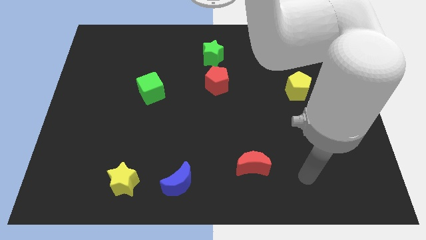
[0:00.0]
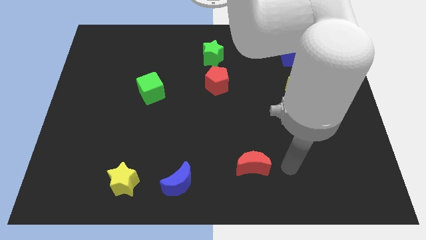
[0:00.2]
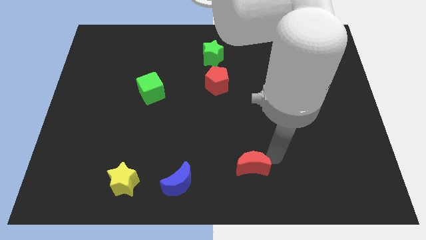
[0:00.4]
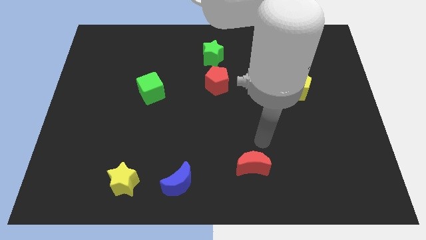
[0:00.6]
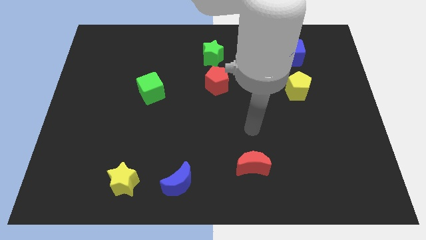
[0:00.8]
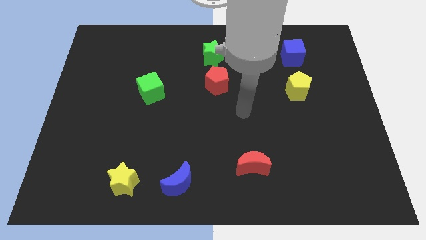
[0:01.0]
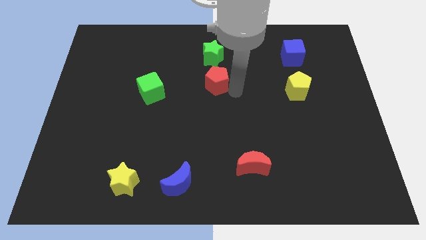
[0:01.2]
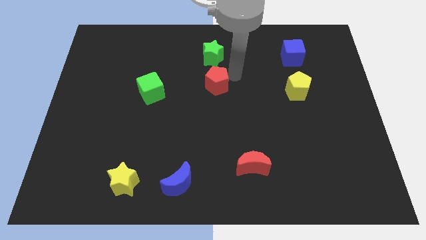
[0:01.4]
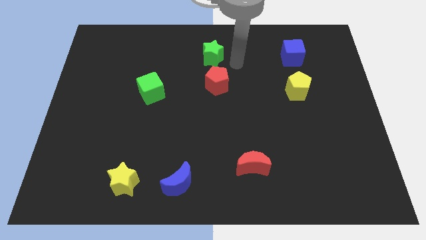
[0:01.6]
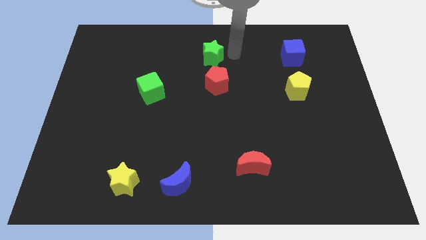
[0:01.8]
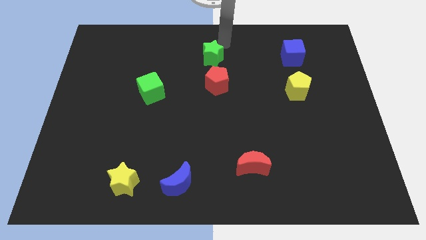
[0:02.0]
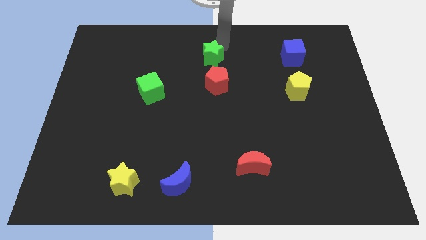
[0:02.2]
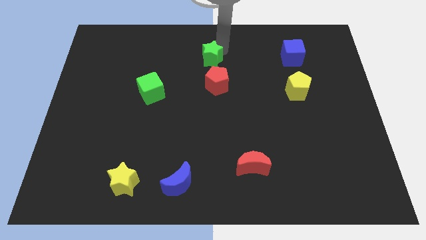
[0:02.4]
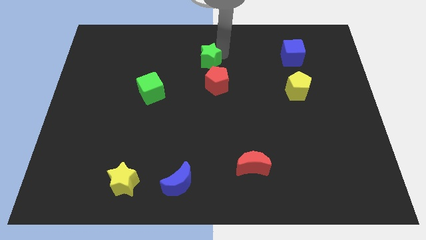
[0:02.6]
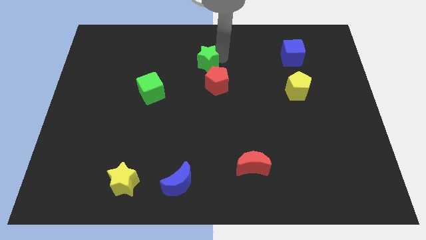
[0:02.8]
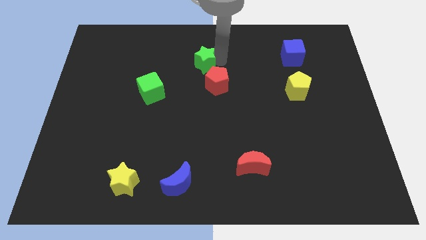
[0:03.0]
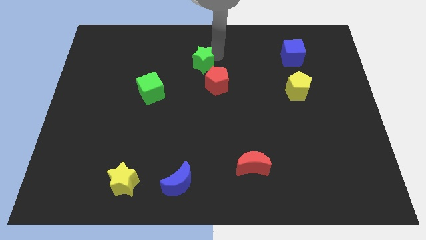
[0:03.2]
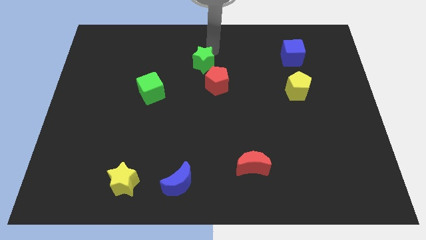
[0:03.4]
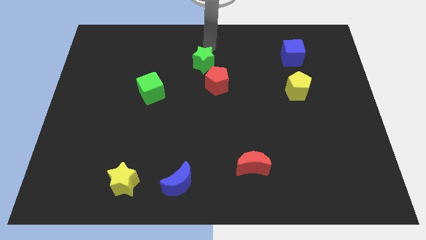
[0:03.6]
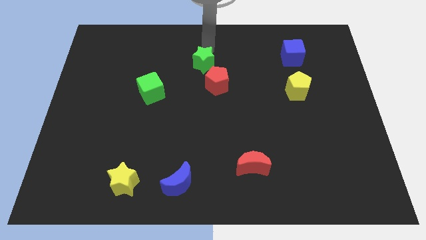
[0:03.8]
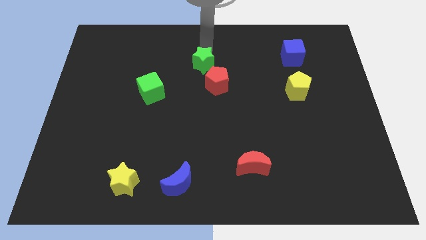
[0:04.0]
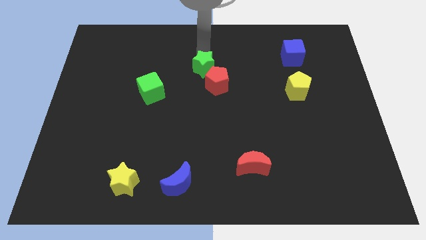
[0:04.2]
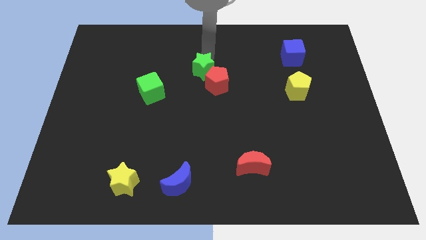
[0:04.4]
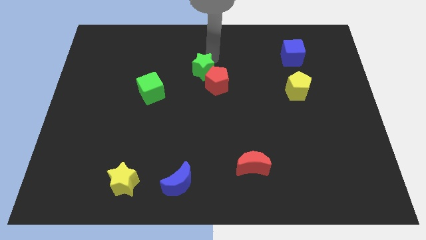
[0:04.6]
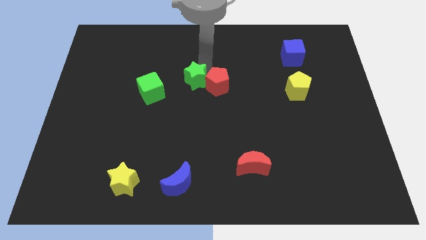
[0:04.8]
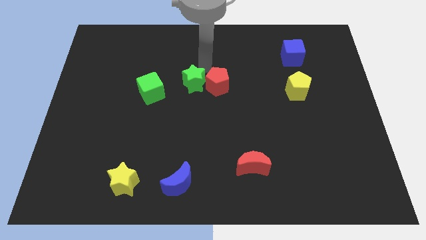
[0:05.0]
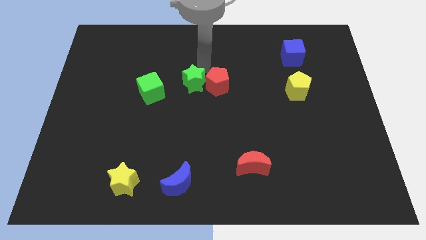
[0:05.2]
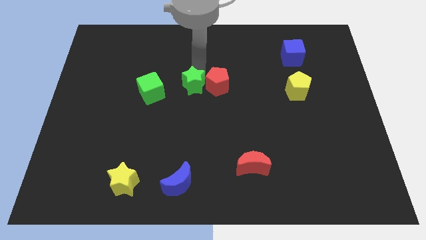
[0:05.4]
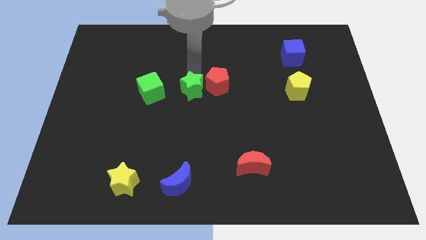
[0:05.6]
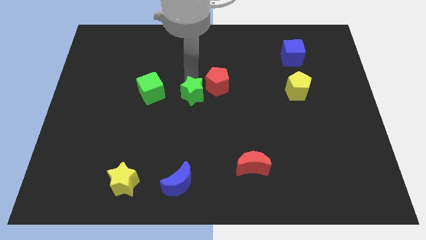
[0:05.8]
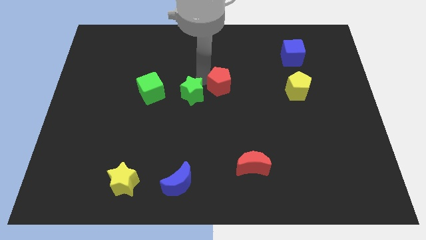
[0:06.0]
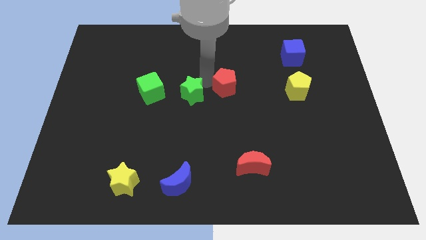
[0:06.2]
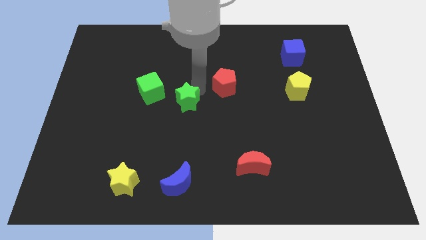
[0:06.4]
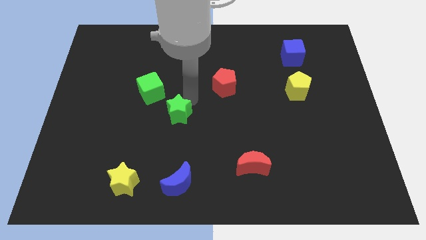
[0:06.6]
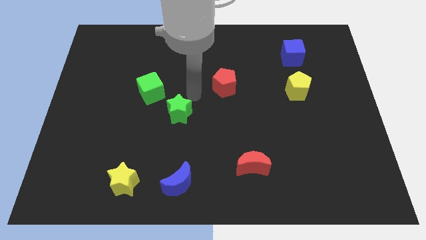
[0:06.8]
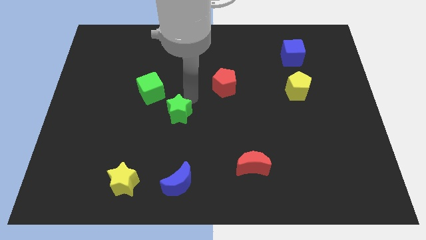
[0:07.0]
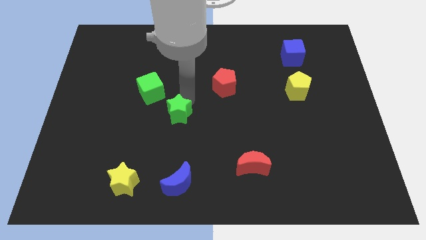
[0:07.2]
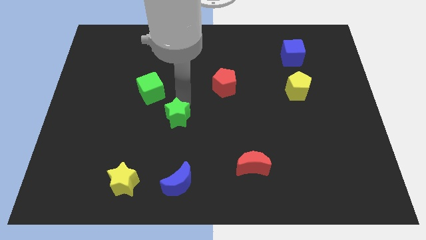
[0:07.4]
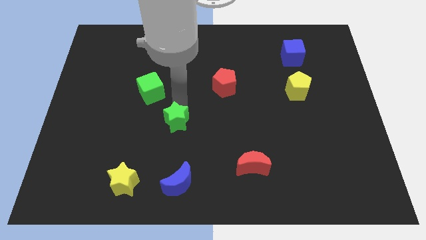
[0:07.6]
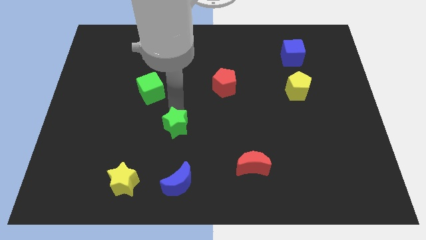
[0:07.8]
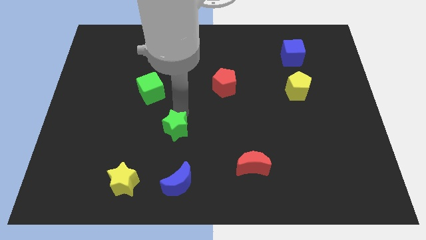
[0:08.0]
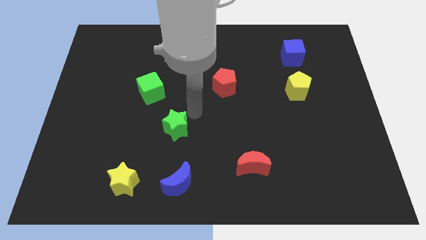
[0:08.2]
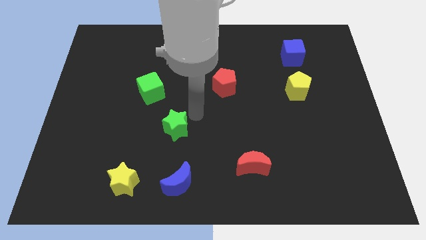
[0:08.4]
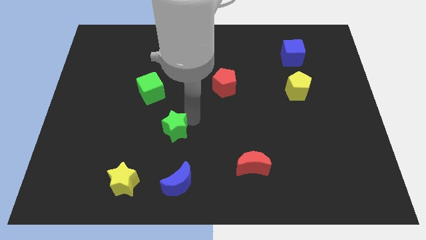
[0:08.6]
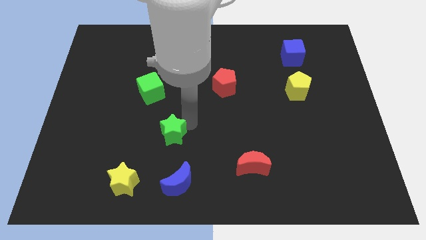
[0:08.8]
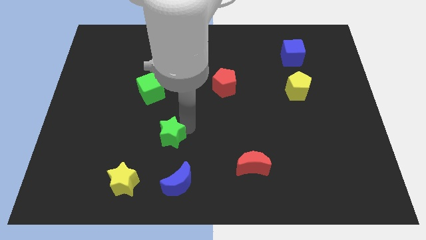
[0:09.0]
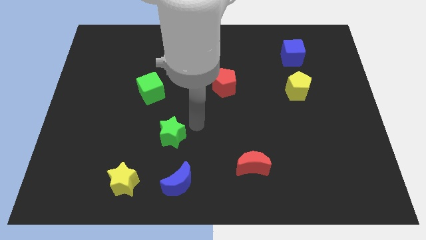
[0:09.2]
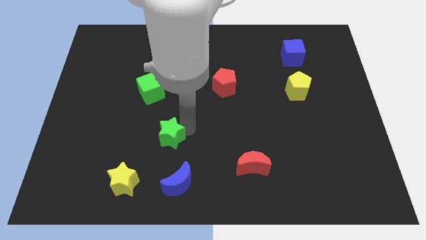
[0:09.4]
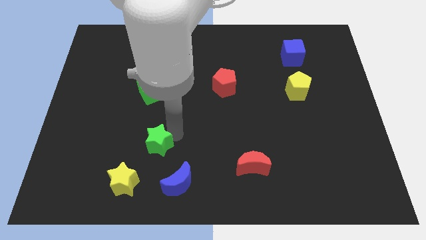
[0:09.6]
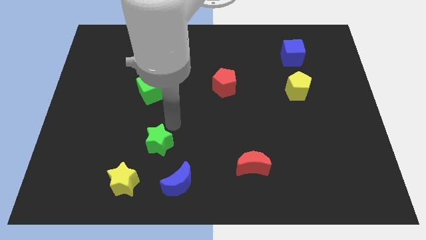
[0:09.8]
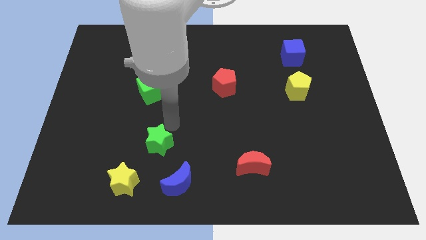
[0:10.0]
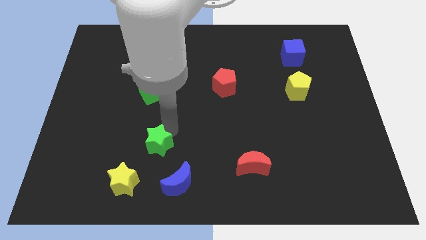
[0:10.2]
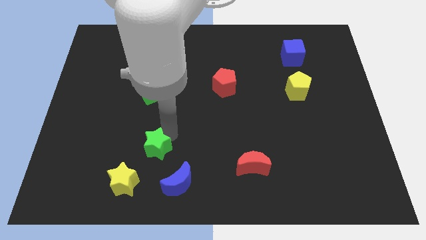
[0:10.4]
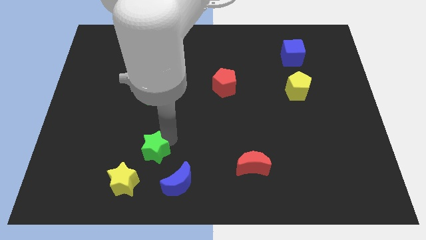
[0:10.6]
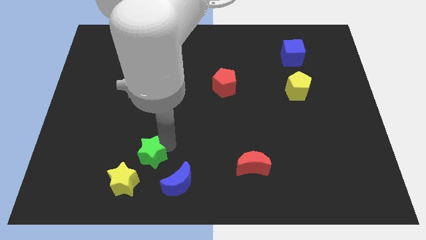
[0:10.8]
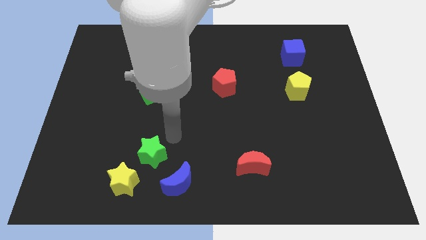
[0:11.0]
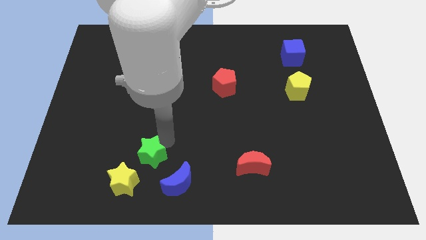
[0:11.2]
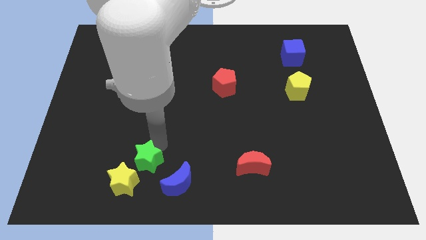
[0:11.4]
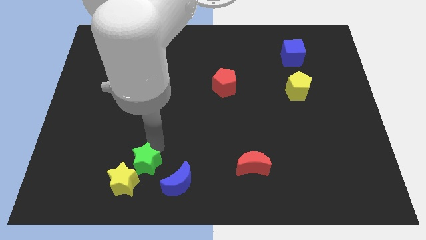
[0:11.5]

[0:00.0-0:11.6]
slide the green star to the yellow star

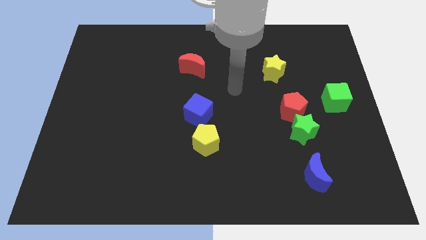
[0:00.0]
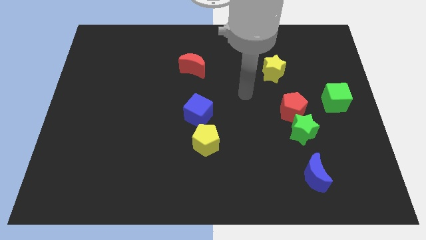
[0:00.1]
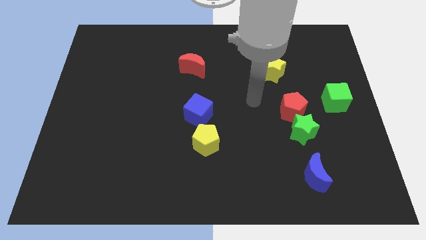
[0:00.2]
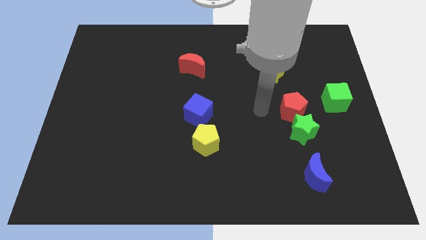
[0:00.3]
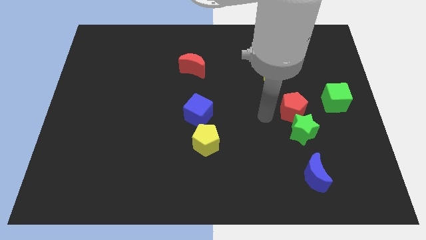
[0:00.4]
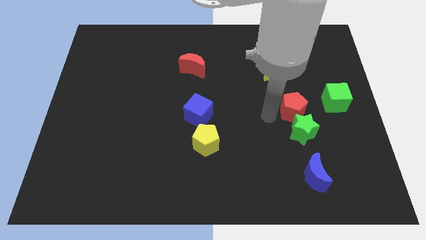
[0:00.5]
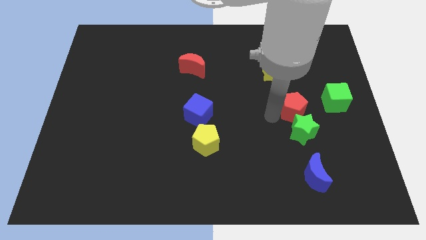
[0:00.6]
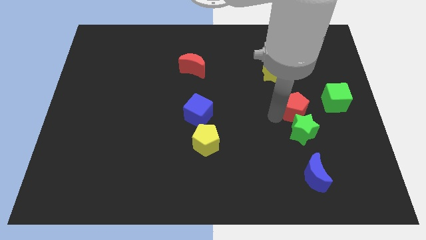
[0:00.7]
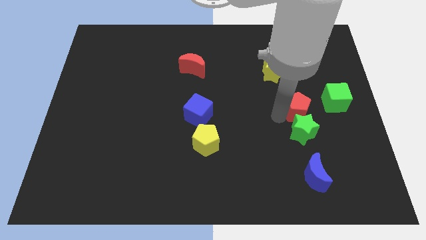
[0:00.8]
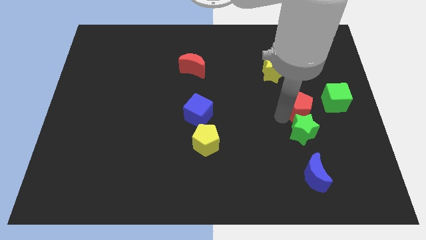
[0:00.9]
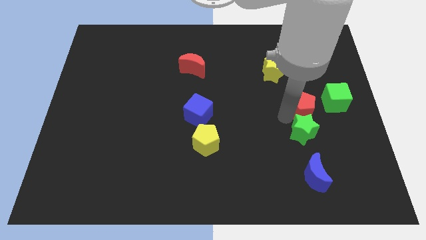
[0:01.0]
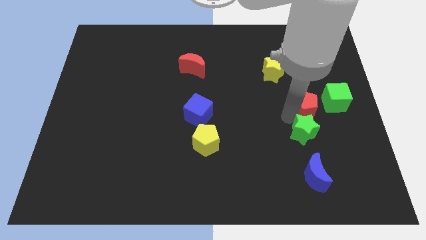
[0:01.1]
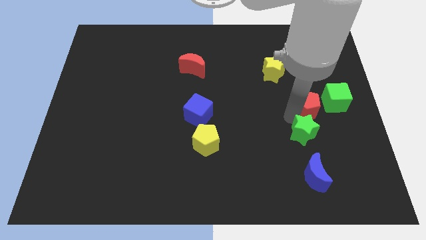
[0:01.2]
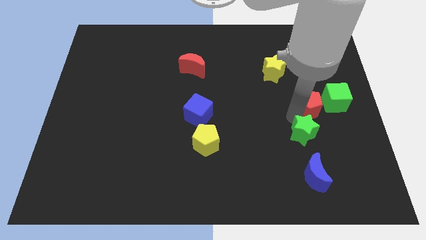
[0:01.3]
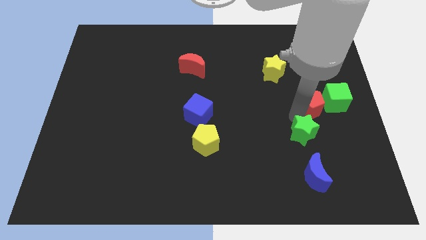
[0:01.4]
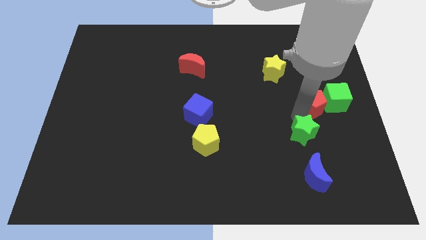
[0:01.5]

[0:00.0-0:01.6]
slide the red pentagon next to the green cube
